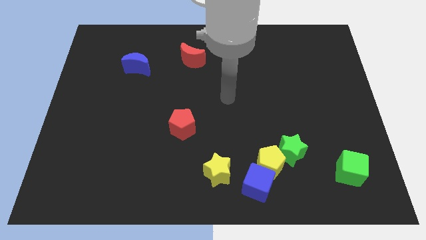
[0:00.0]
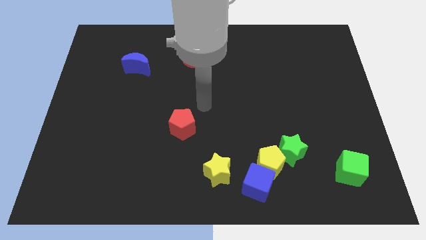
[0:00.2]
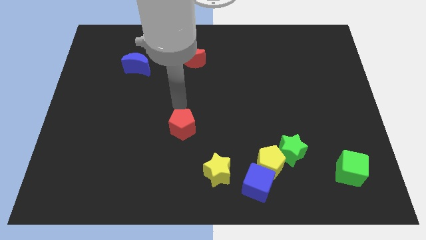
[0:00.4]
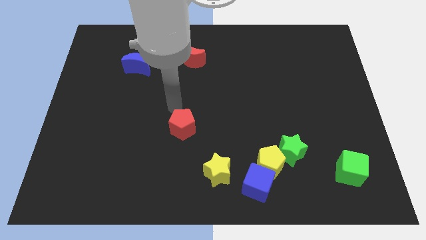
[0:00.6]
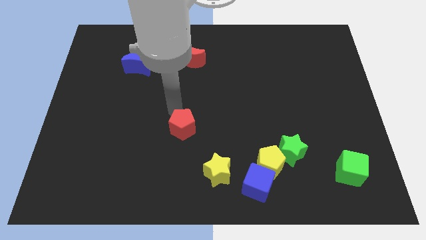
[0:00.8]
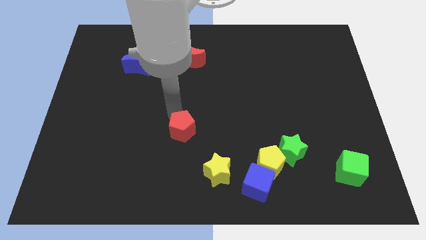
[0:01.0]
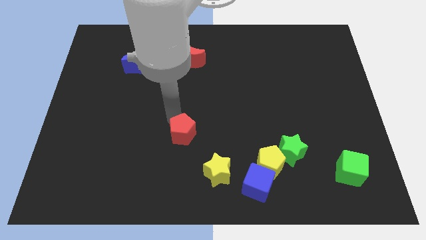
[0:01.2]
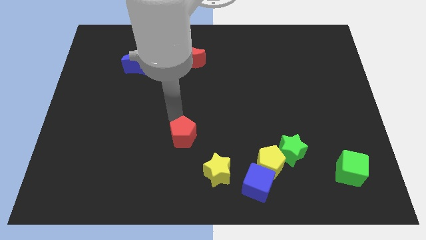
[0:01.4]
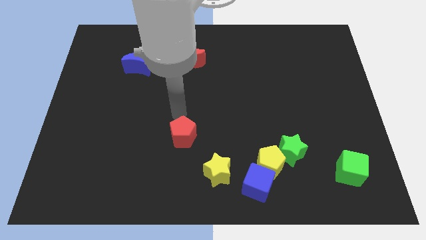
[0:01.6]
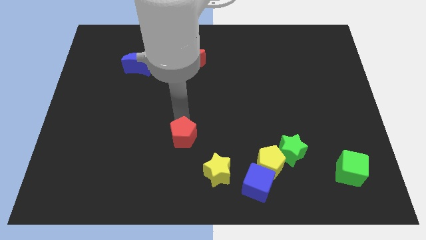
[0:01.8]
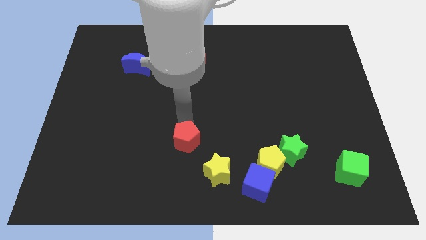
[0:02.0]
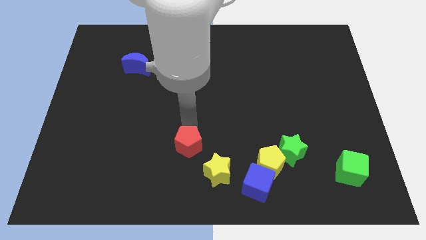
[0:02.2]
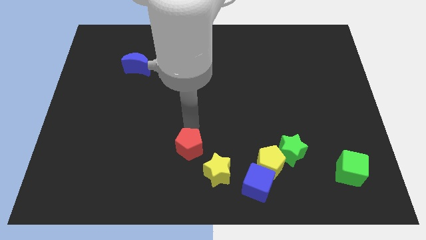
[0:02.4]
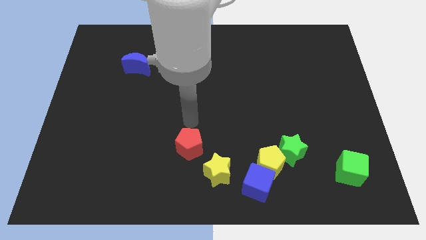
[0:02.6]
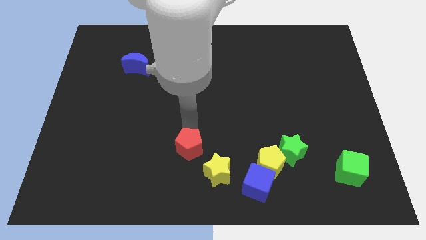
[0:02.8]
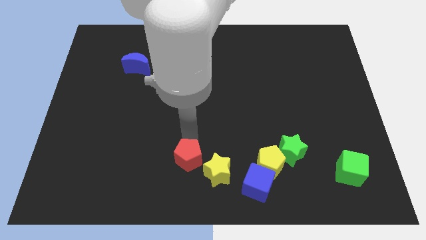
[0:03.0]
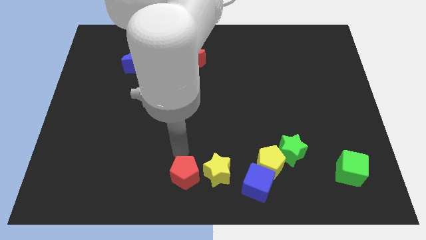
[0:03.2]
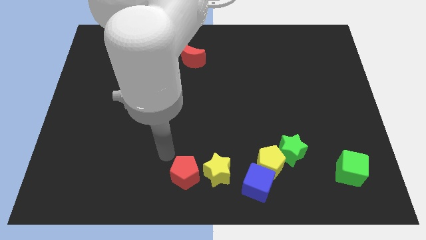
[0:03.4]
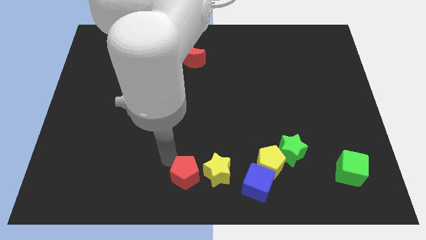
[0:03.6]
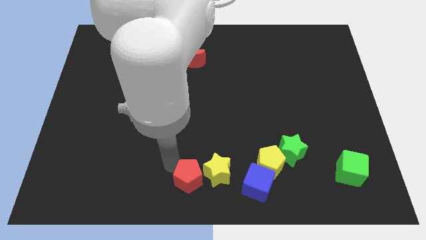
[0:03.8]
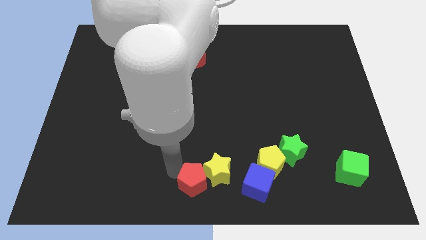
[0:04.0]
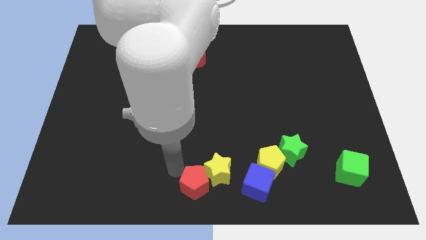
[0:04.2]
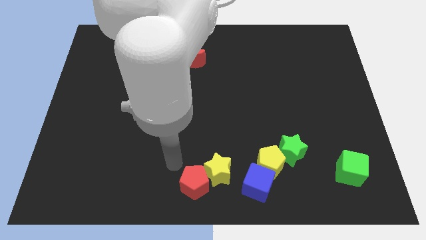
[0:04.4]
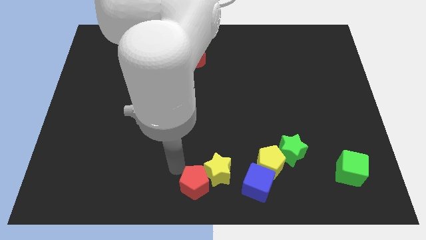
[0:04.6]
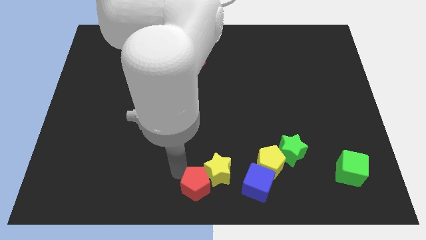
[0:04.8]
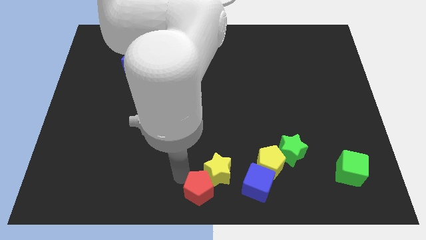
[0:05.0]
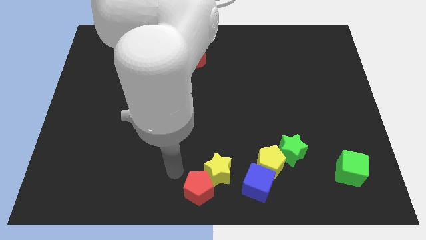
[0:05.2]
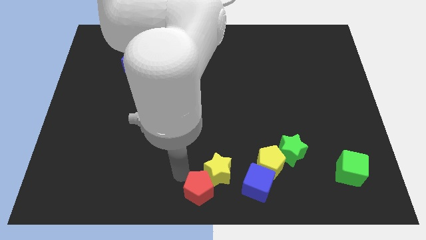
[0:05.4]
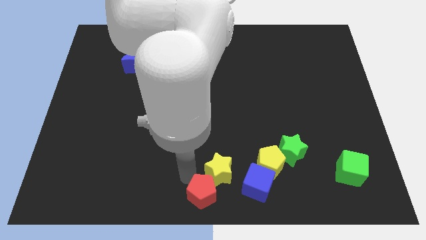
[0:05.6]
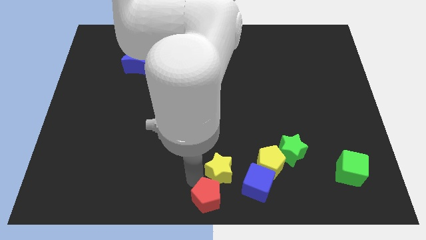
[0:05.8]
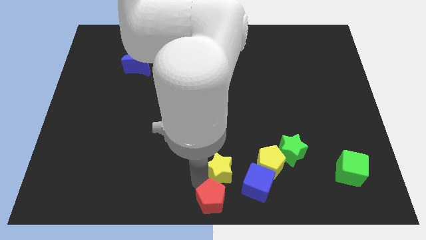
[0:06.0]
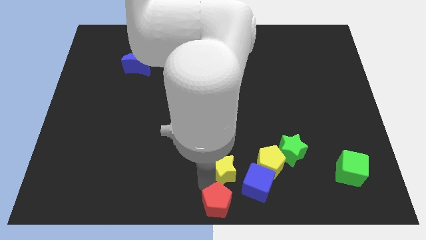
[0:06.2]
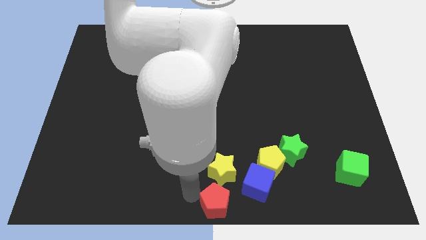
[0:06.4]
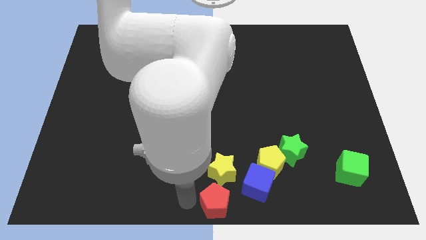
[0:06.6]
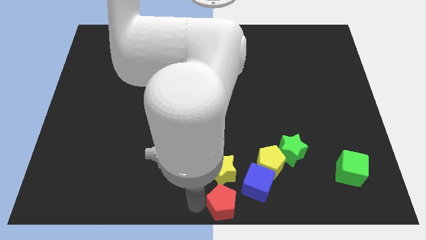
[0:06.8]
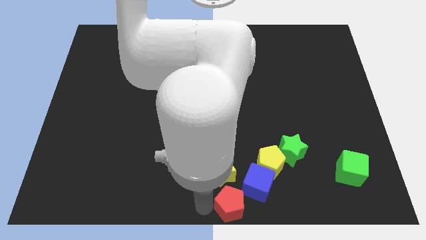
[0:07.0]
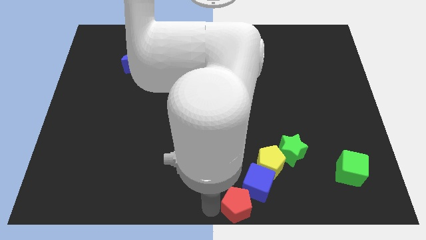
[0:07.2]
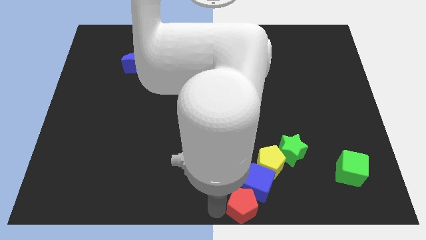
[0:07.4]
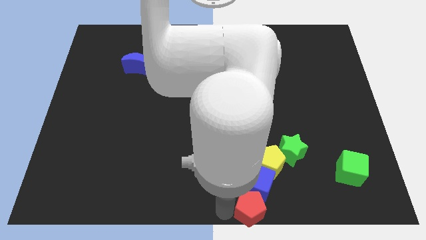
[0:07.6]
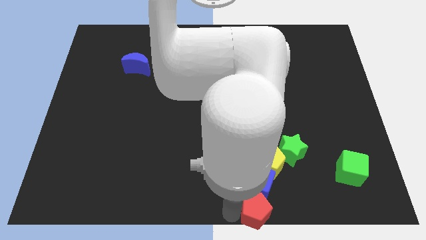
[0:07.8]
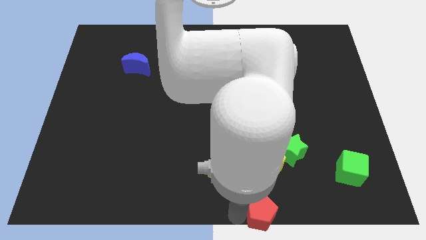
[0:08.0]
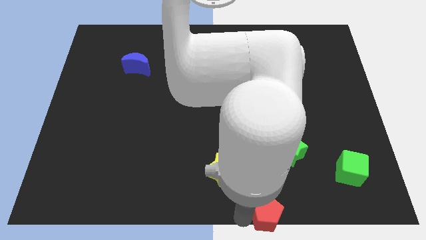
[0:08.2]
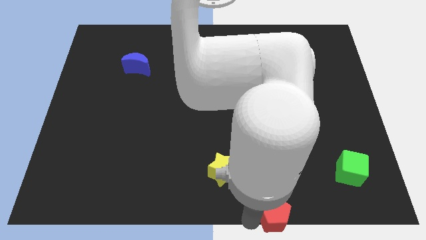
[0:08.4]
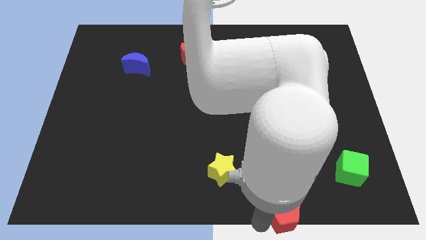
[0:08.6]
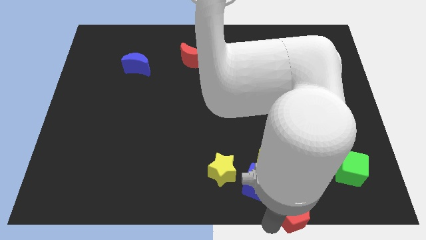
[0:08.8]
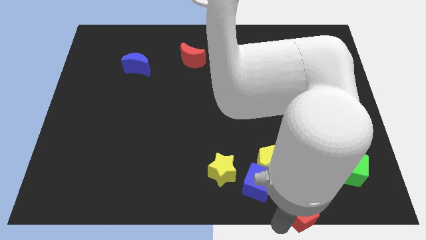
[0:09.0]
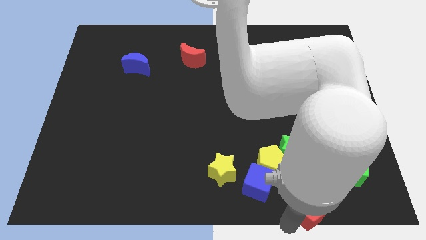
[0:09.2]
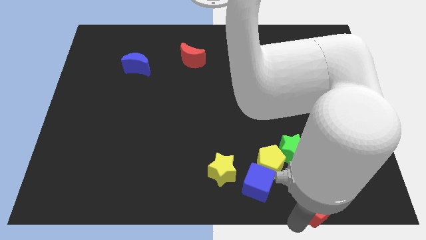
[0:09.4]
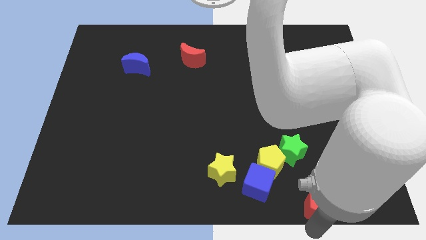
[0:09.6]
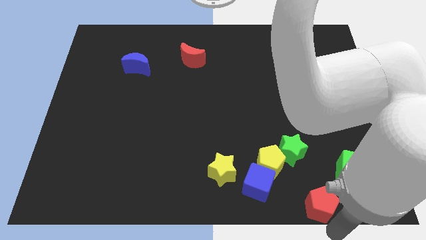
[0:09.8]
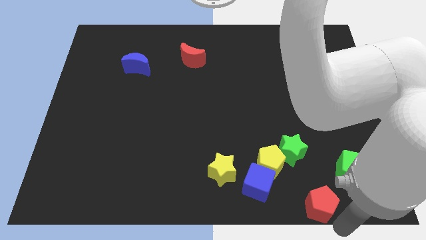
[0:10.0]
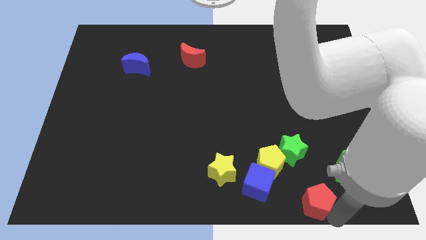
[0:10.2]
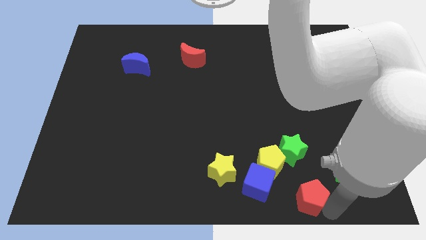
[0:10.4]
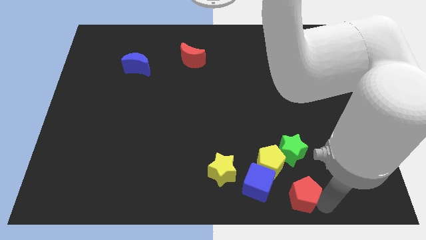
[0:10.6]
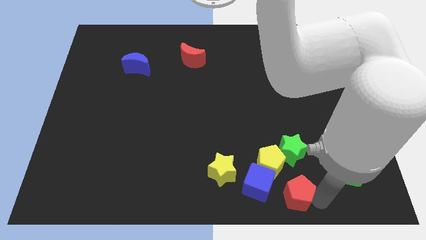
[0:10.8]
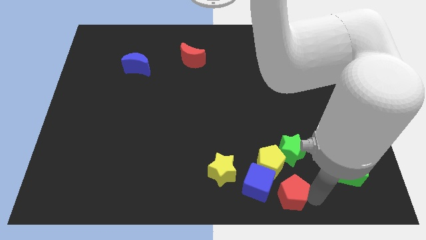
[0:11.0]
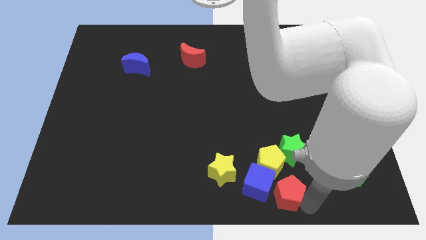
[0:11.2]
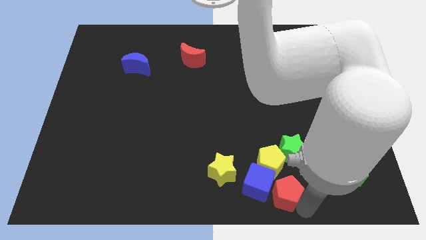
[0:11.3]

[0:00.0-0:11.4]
move the red pentagon right of the yellow star

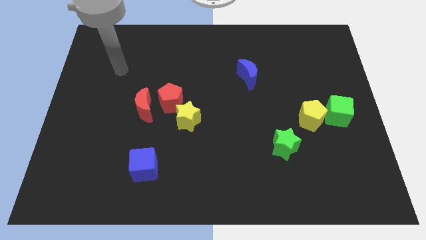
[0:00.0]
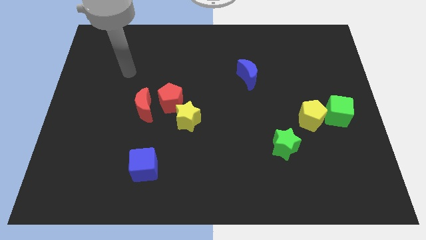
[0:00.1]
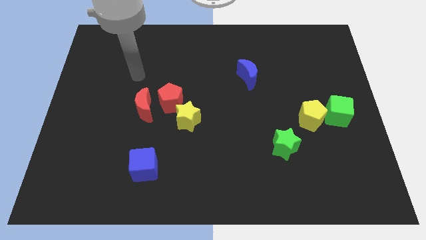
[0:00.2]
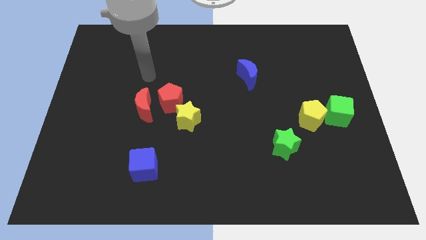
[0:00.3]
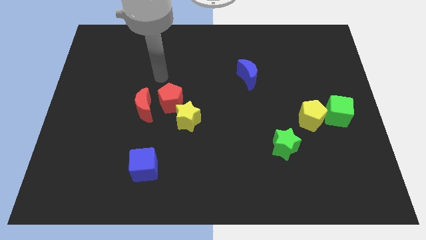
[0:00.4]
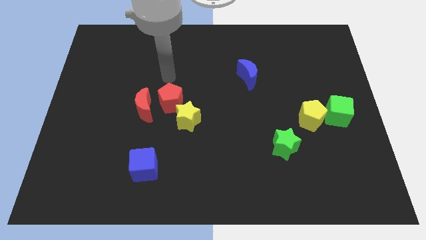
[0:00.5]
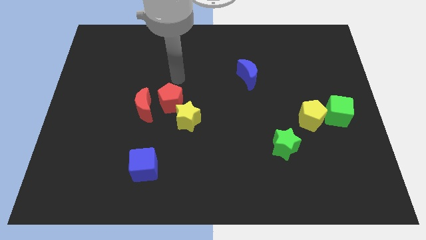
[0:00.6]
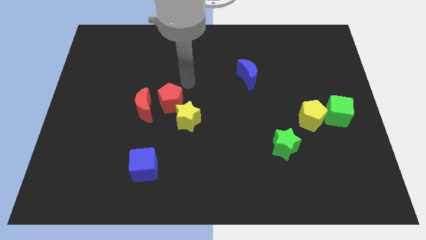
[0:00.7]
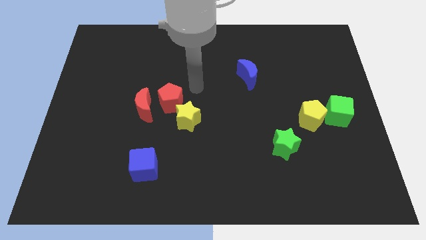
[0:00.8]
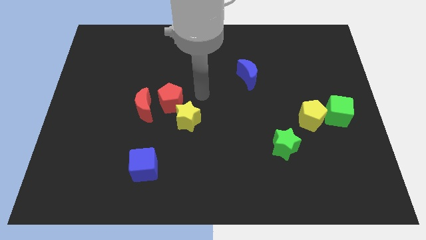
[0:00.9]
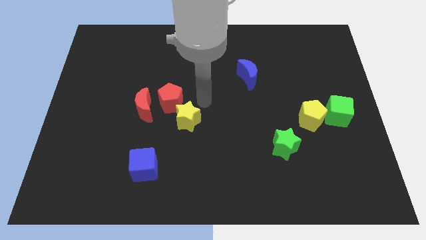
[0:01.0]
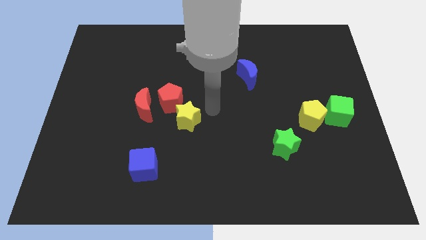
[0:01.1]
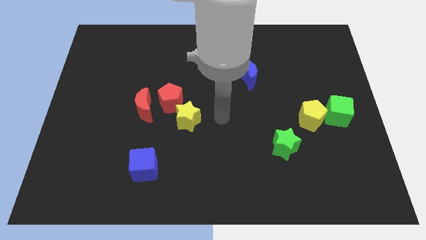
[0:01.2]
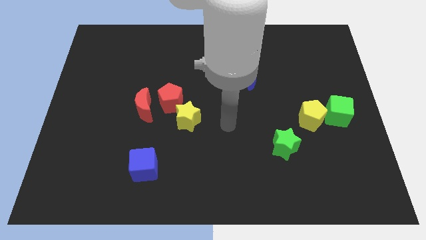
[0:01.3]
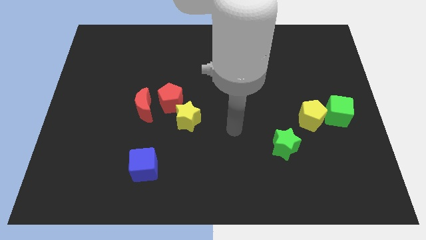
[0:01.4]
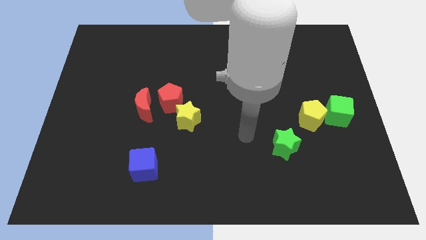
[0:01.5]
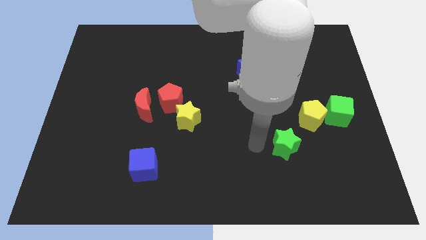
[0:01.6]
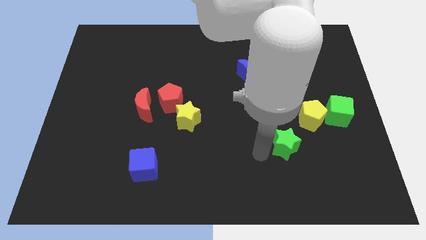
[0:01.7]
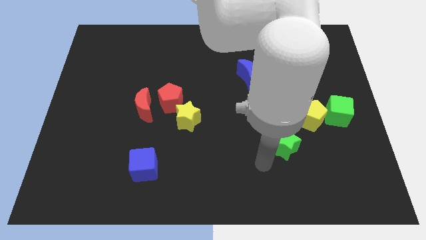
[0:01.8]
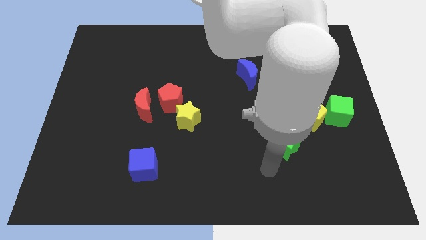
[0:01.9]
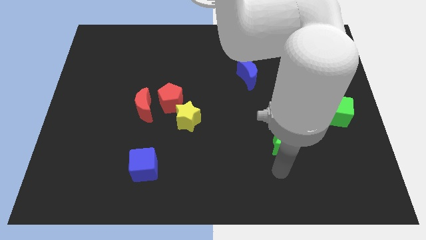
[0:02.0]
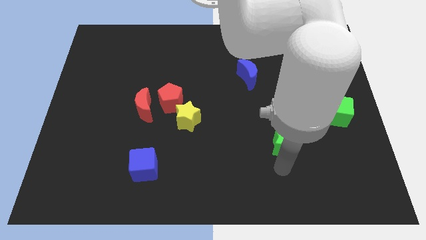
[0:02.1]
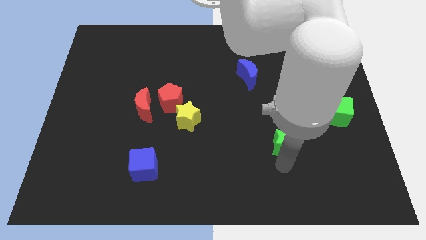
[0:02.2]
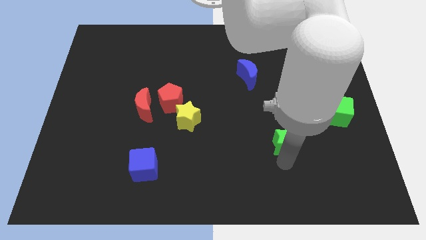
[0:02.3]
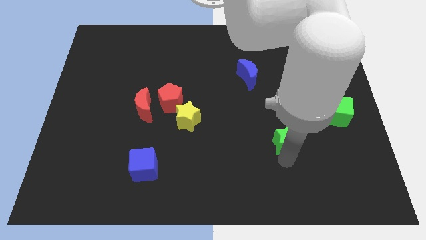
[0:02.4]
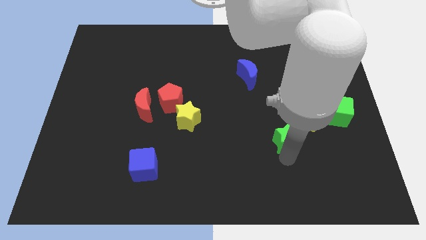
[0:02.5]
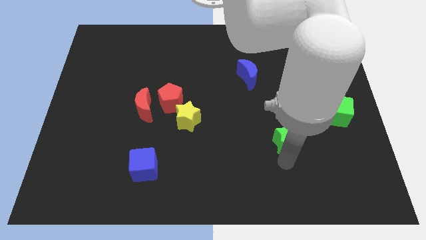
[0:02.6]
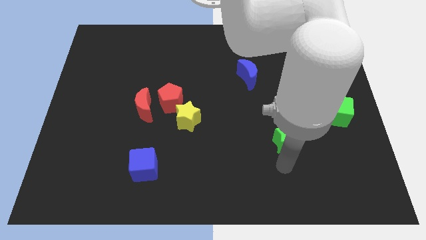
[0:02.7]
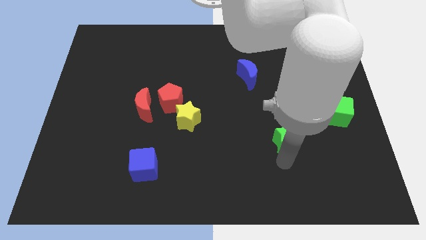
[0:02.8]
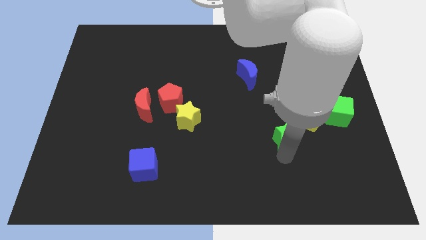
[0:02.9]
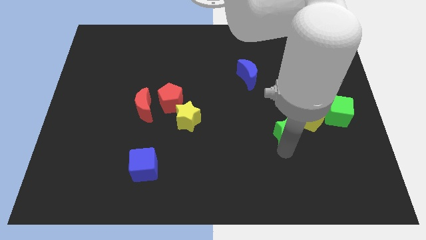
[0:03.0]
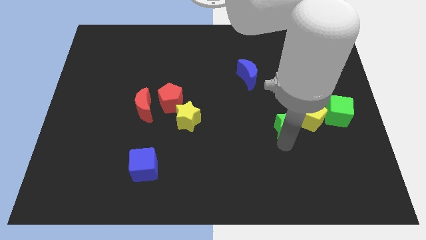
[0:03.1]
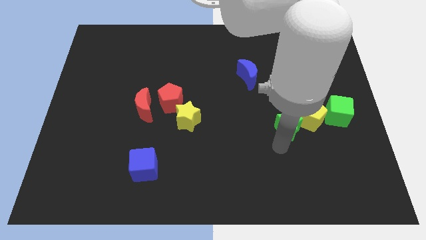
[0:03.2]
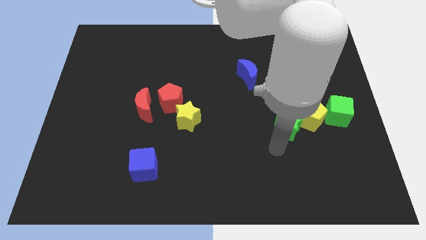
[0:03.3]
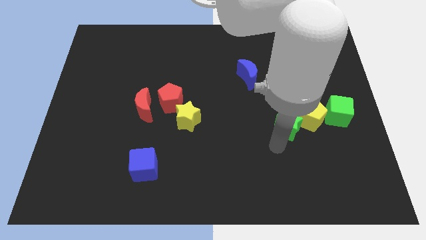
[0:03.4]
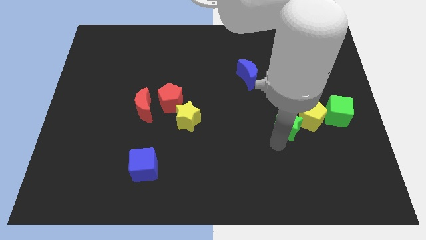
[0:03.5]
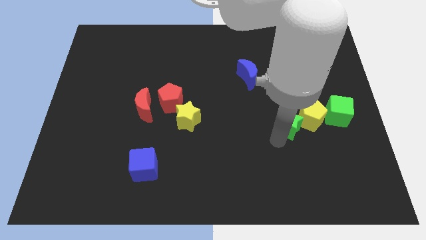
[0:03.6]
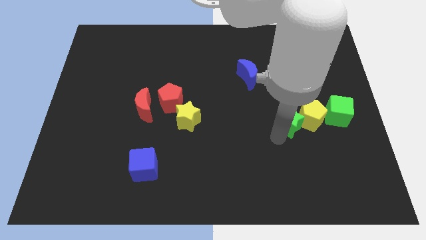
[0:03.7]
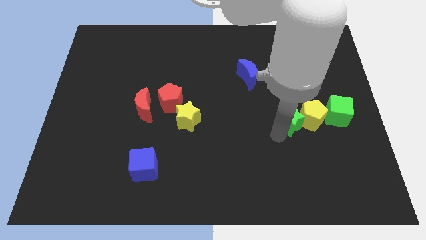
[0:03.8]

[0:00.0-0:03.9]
push the green star to the top left side of the yellow pentagon
